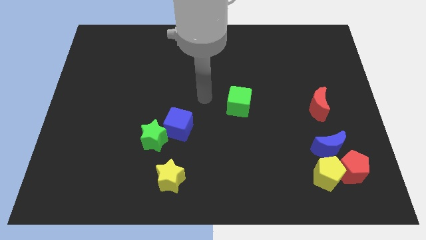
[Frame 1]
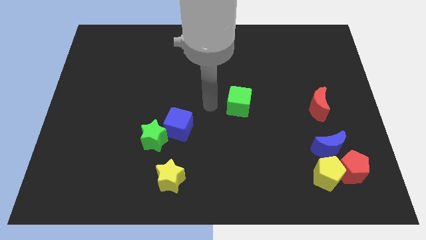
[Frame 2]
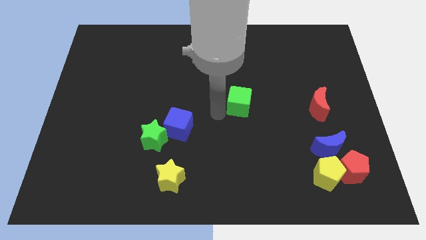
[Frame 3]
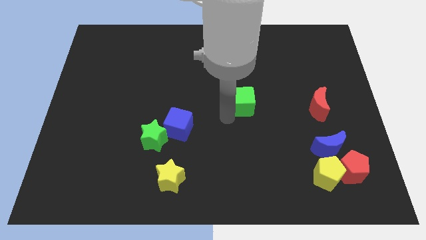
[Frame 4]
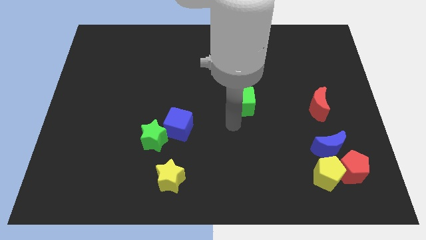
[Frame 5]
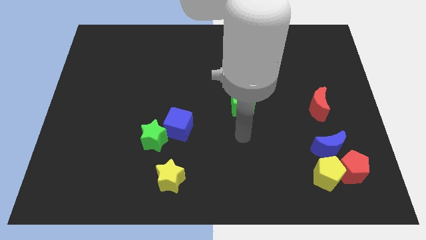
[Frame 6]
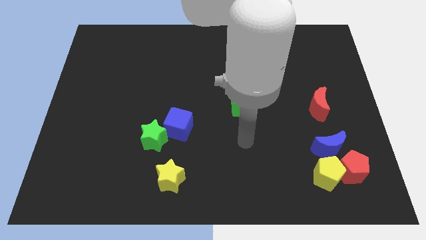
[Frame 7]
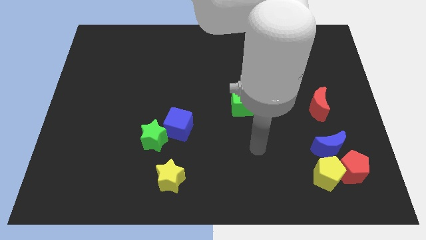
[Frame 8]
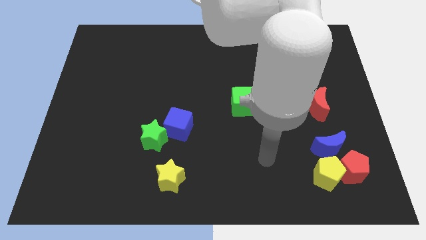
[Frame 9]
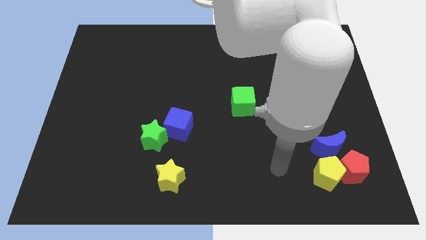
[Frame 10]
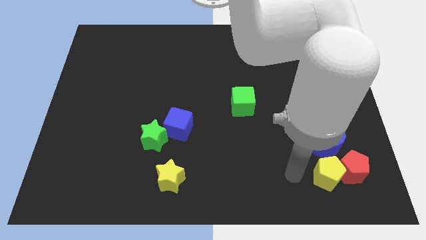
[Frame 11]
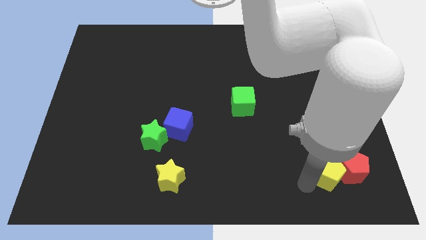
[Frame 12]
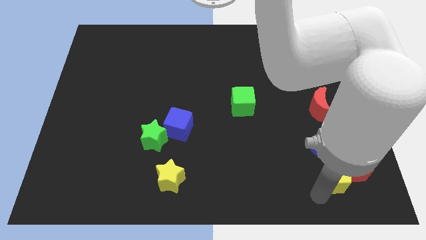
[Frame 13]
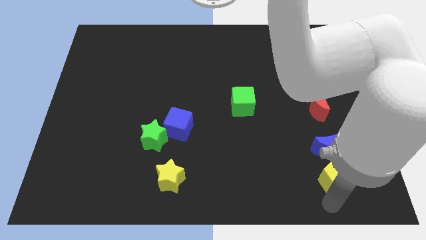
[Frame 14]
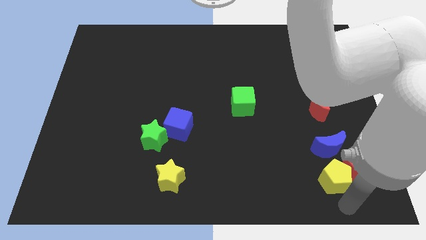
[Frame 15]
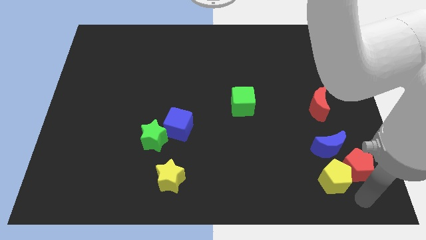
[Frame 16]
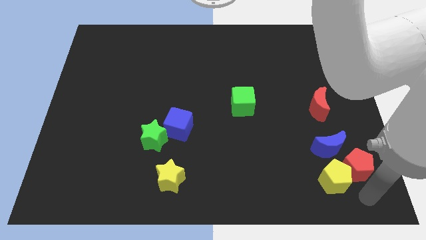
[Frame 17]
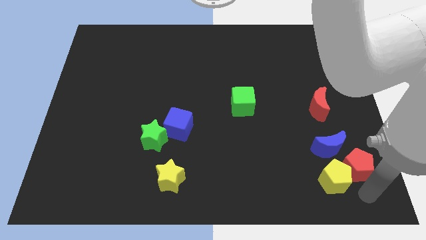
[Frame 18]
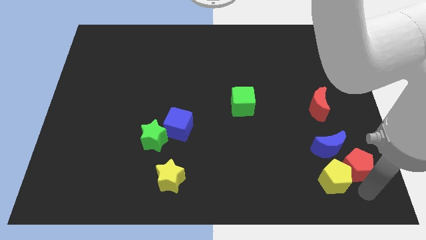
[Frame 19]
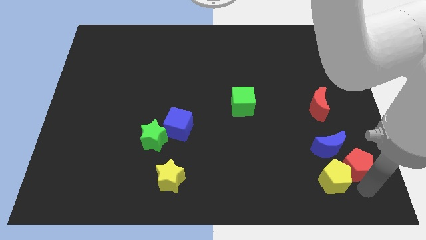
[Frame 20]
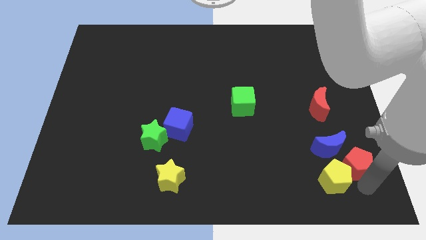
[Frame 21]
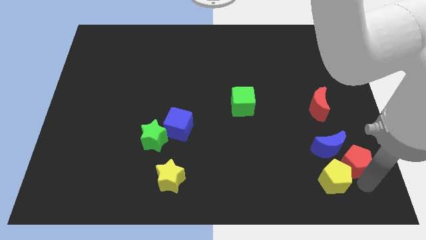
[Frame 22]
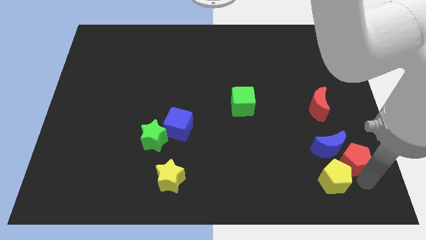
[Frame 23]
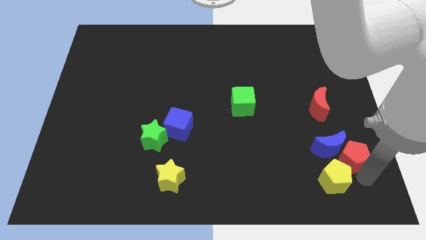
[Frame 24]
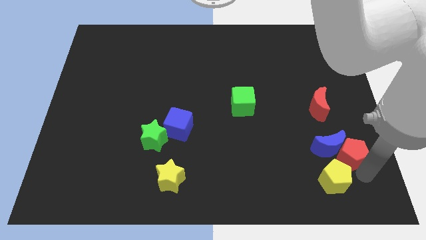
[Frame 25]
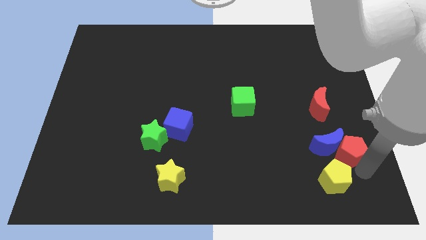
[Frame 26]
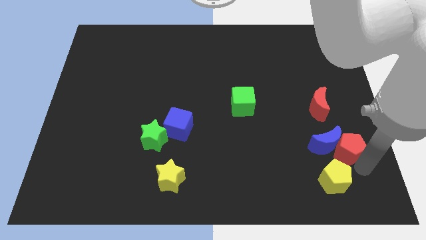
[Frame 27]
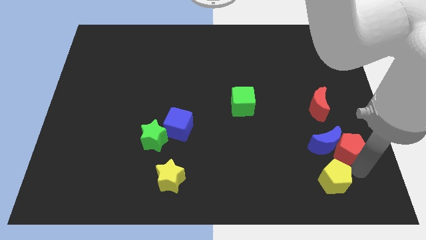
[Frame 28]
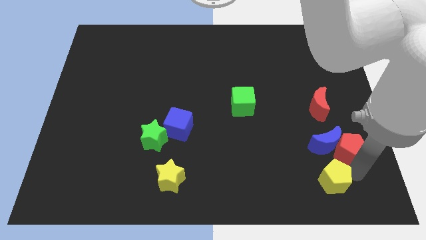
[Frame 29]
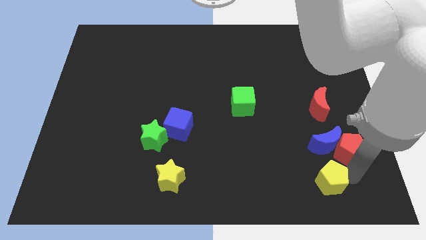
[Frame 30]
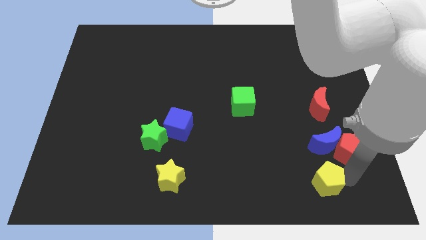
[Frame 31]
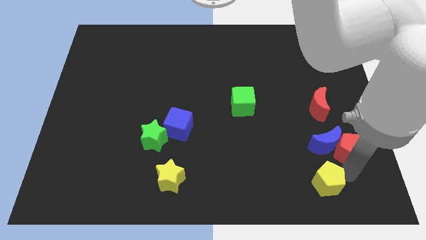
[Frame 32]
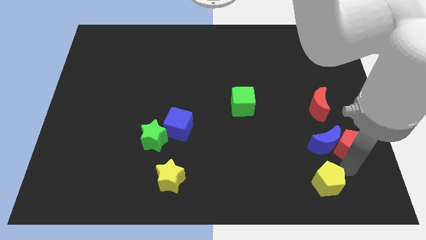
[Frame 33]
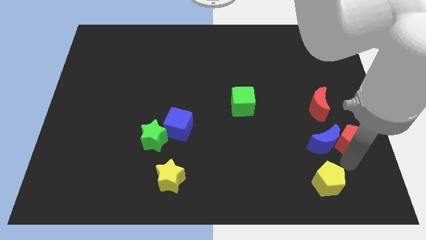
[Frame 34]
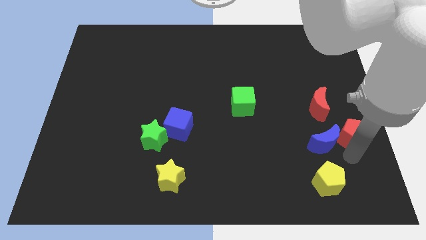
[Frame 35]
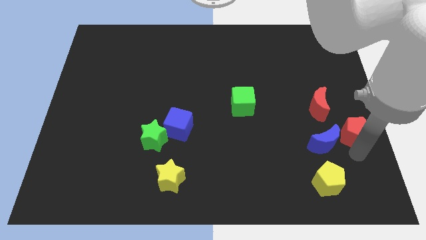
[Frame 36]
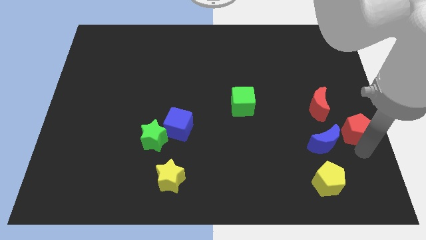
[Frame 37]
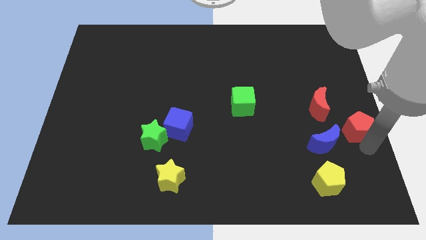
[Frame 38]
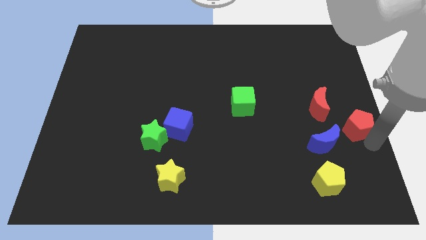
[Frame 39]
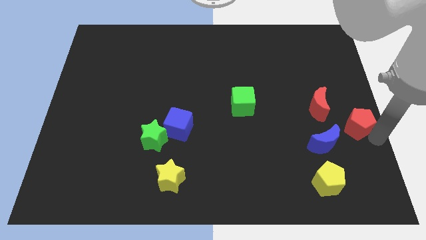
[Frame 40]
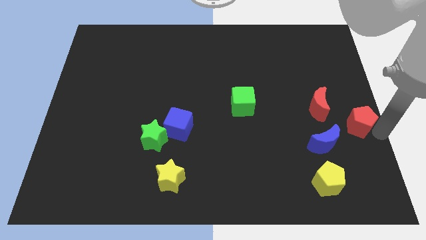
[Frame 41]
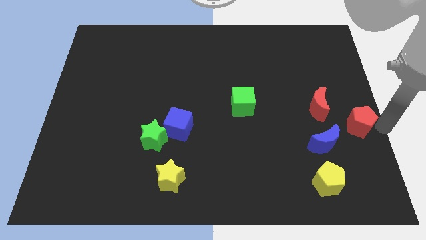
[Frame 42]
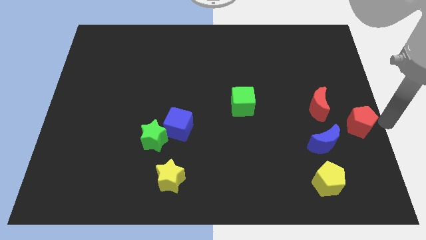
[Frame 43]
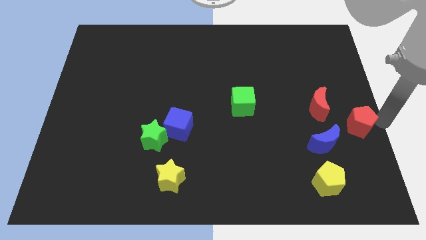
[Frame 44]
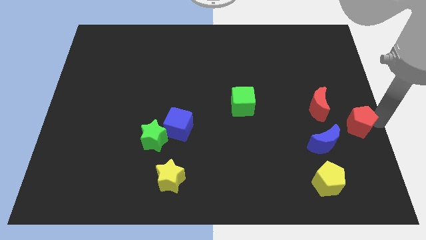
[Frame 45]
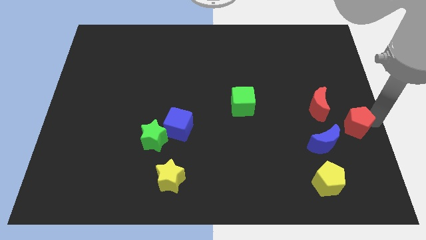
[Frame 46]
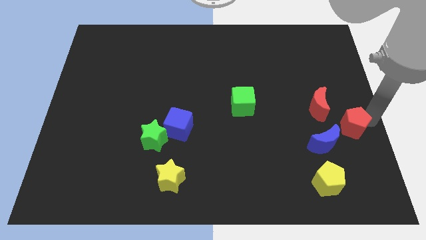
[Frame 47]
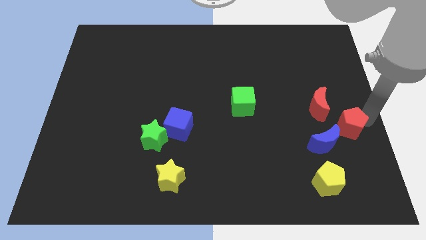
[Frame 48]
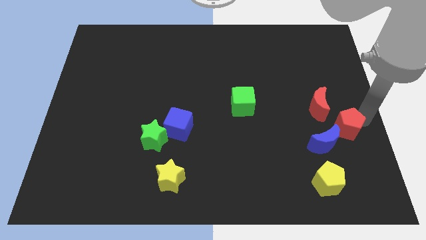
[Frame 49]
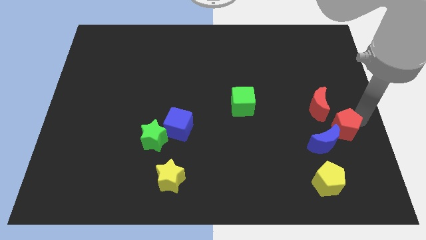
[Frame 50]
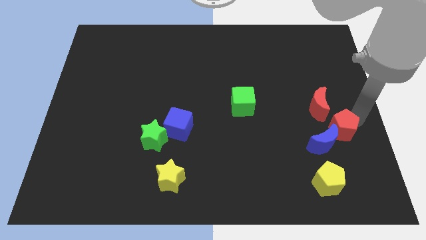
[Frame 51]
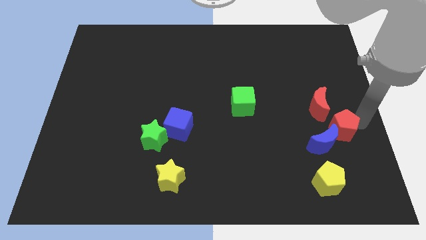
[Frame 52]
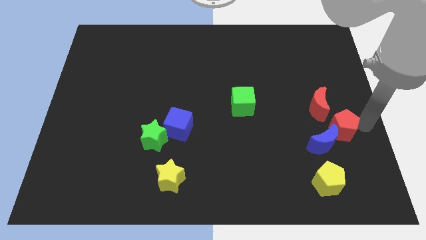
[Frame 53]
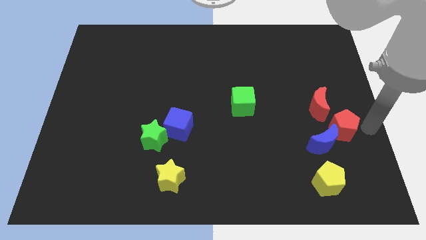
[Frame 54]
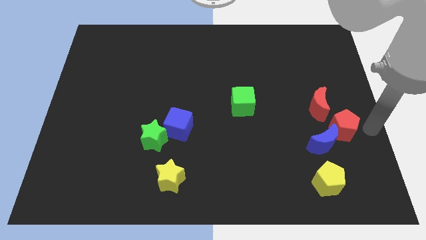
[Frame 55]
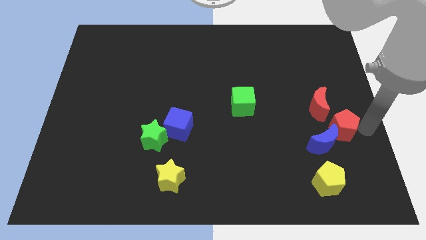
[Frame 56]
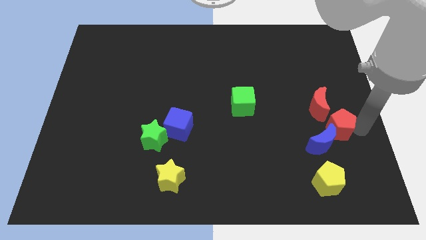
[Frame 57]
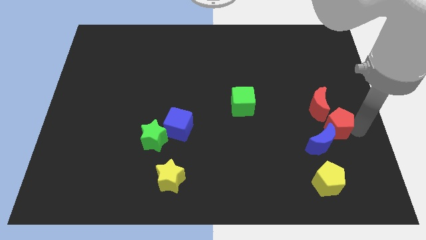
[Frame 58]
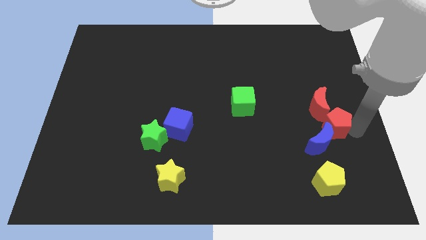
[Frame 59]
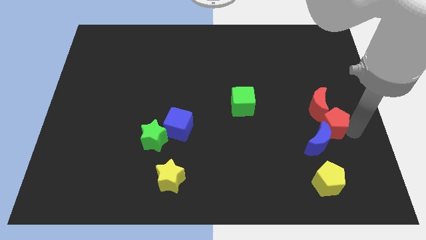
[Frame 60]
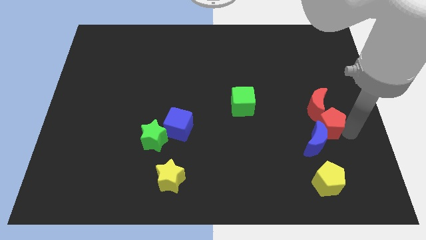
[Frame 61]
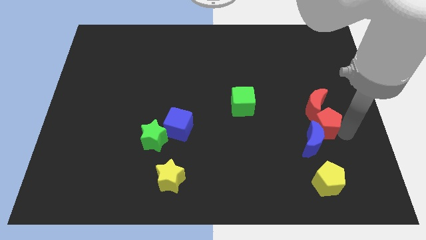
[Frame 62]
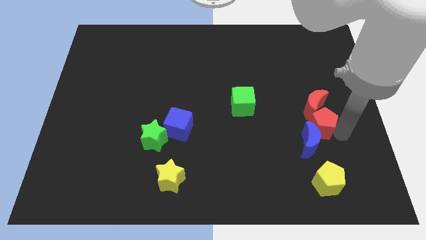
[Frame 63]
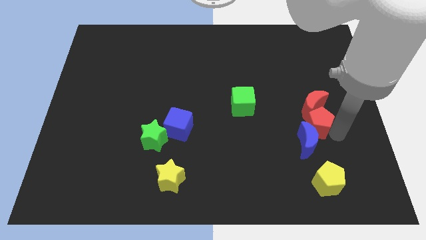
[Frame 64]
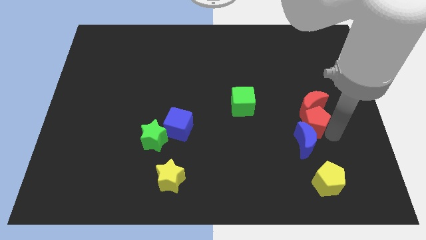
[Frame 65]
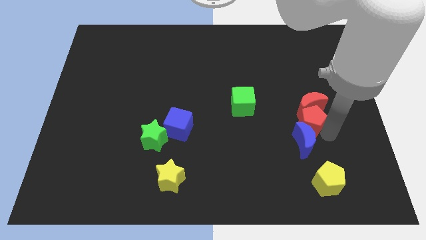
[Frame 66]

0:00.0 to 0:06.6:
slide the red pentagon diagonally up and to the left of the blue moon

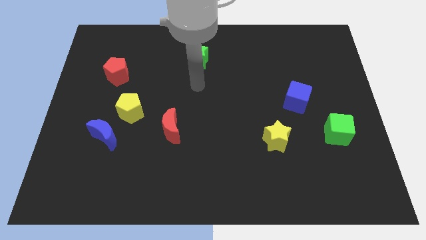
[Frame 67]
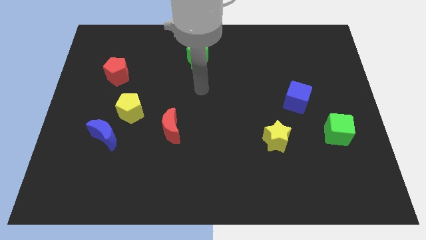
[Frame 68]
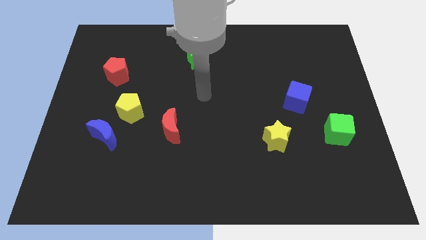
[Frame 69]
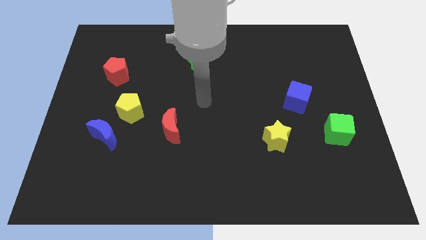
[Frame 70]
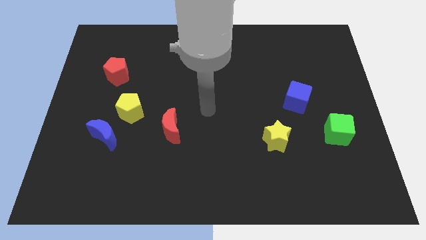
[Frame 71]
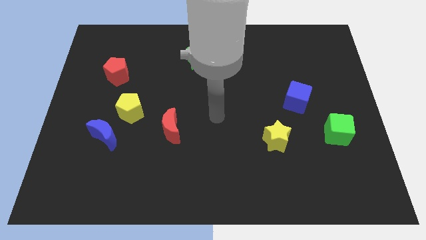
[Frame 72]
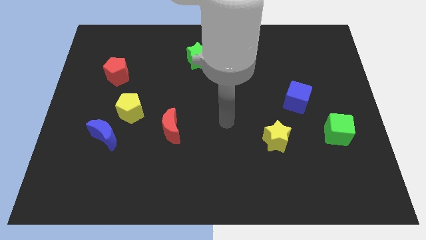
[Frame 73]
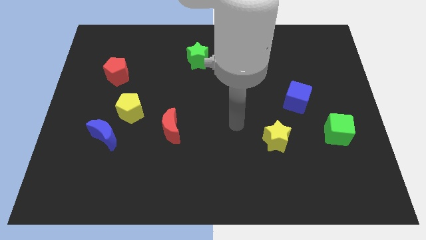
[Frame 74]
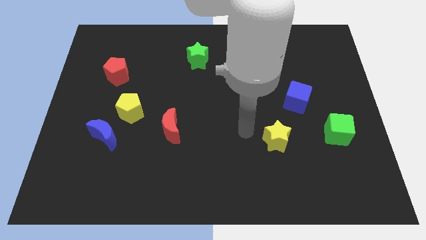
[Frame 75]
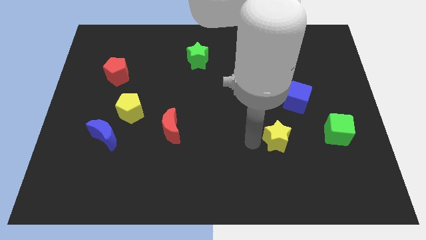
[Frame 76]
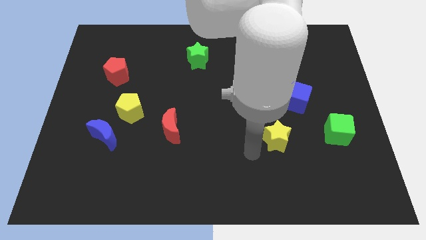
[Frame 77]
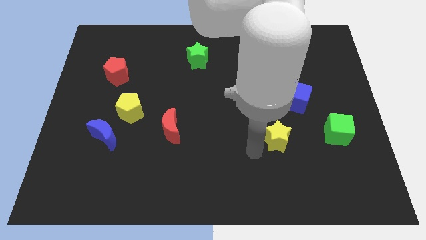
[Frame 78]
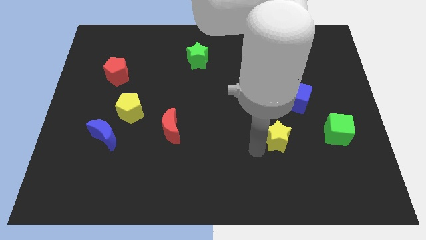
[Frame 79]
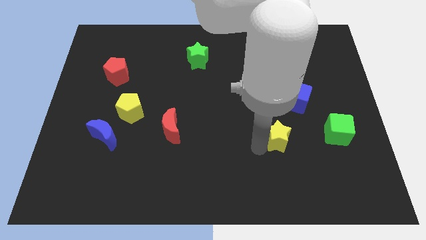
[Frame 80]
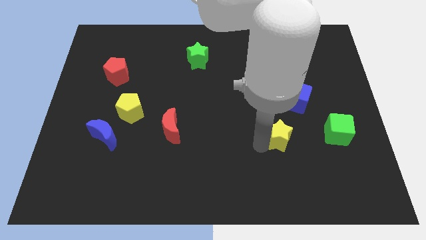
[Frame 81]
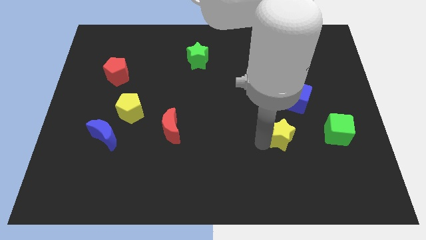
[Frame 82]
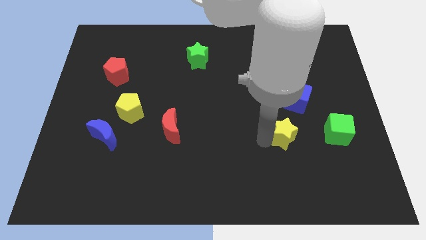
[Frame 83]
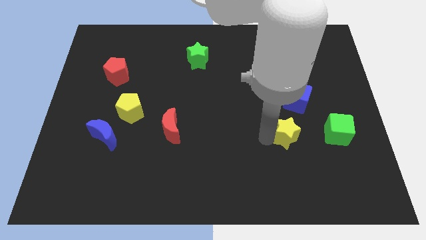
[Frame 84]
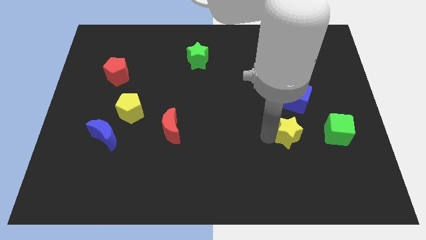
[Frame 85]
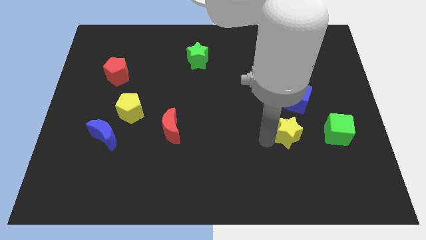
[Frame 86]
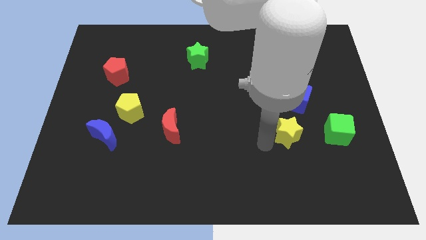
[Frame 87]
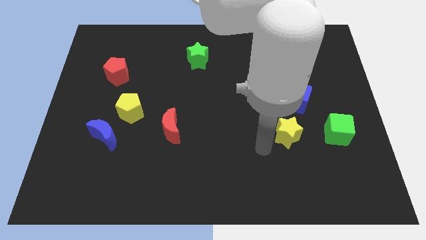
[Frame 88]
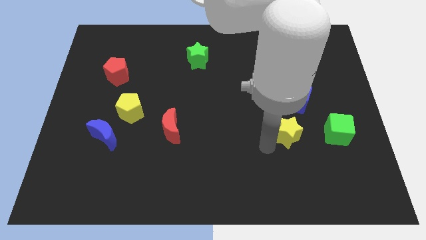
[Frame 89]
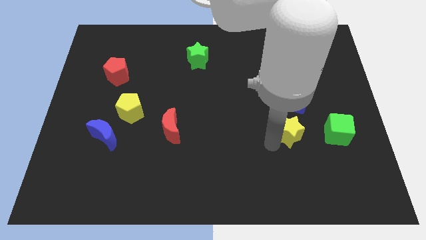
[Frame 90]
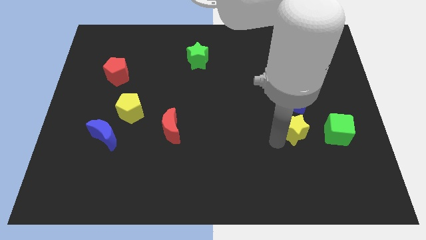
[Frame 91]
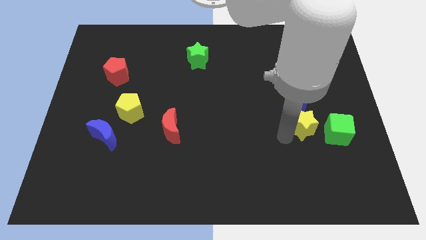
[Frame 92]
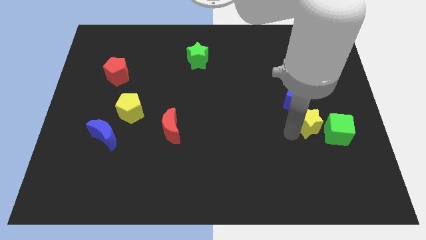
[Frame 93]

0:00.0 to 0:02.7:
move the yellow star diagonally down and to the right of the blue cube
